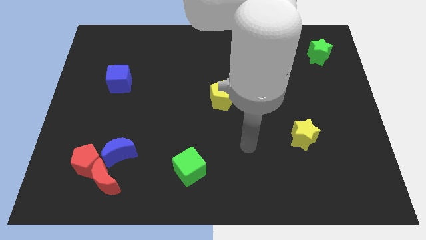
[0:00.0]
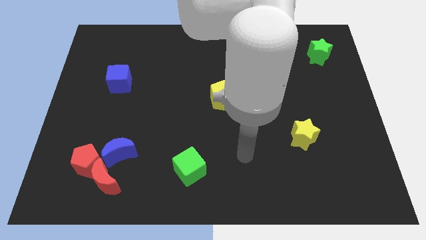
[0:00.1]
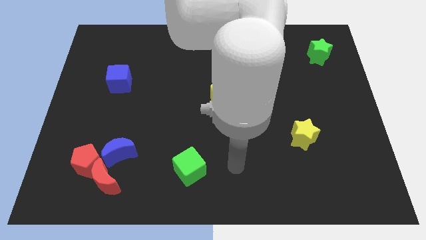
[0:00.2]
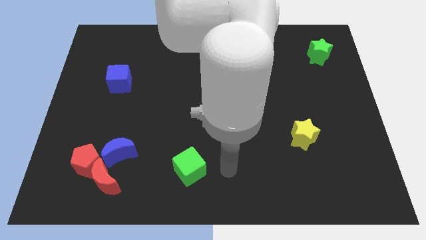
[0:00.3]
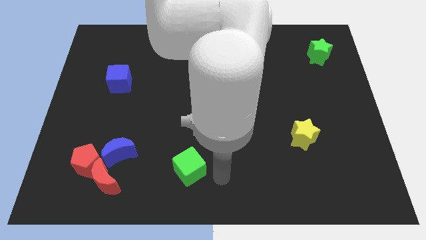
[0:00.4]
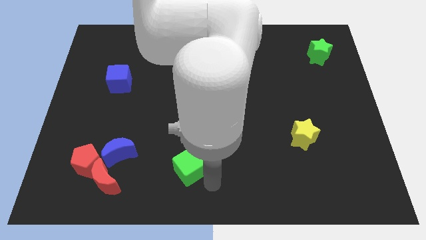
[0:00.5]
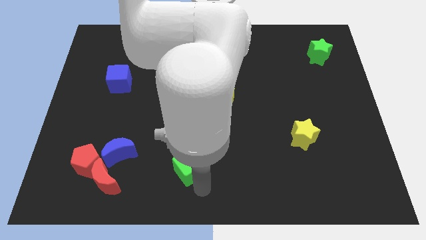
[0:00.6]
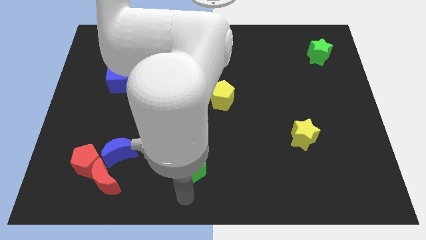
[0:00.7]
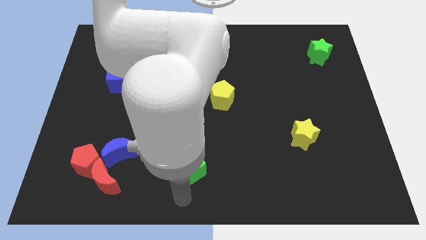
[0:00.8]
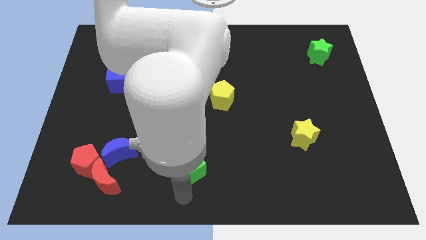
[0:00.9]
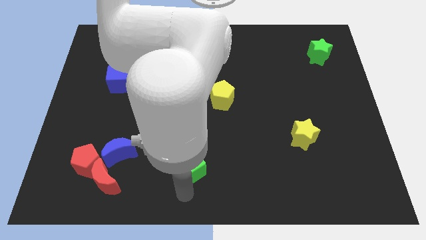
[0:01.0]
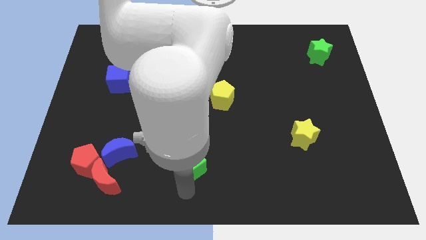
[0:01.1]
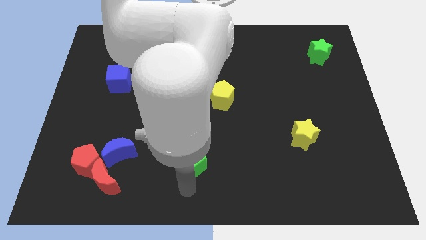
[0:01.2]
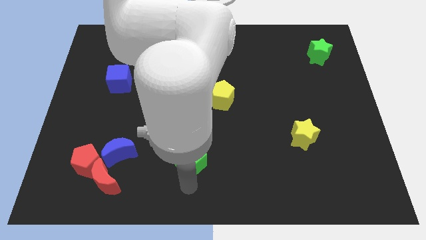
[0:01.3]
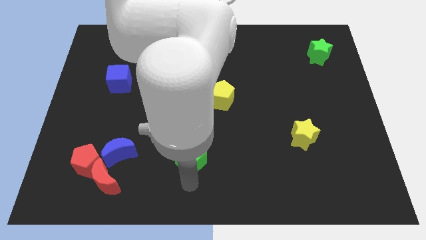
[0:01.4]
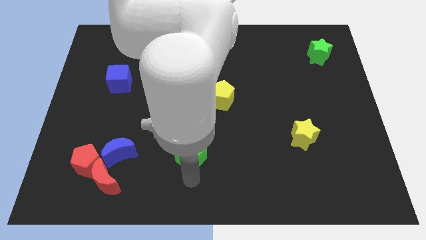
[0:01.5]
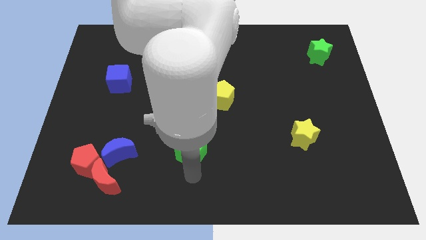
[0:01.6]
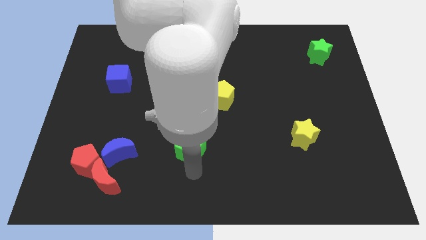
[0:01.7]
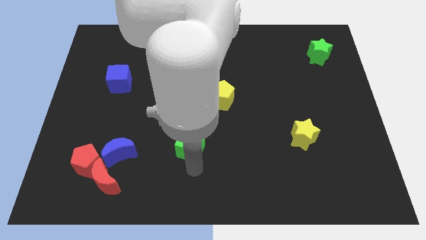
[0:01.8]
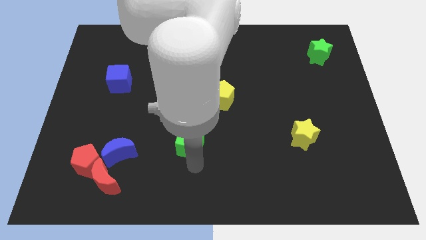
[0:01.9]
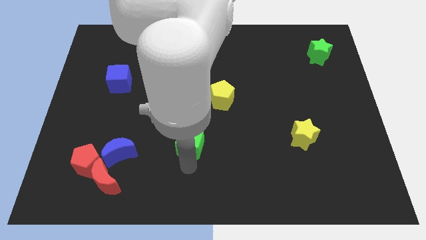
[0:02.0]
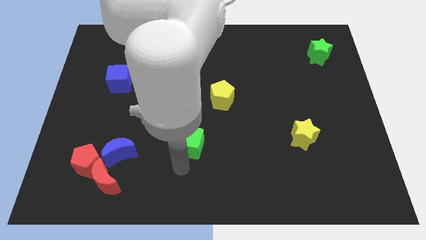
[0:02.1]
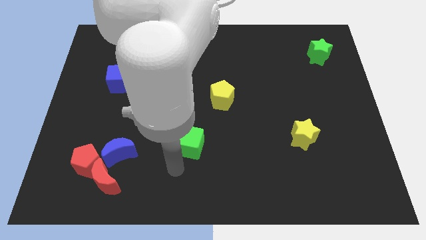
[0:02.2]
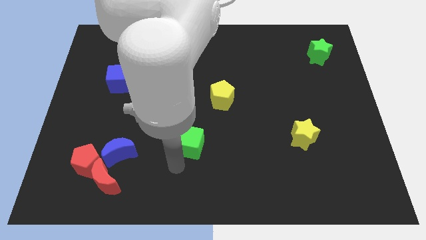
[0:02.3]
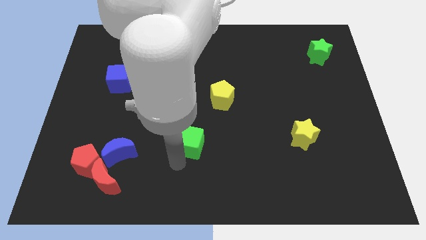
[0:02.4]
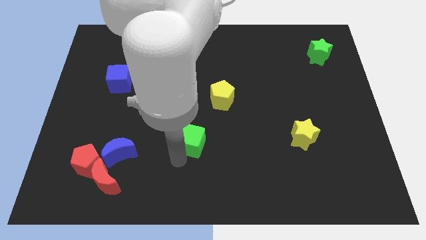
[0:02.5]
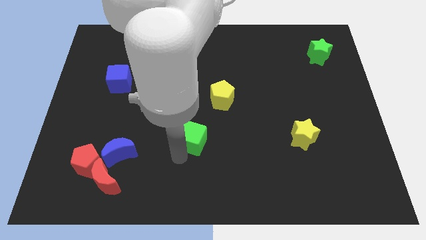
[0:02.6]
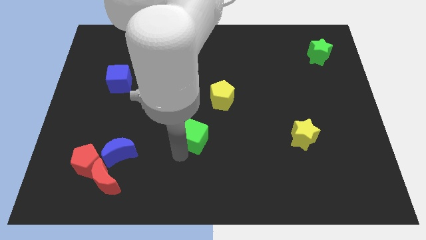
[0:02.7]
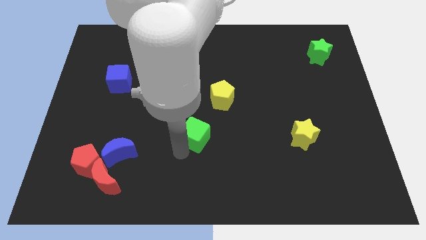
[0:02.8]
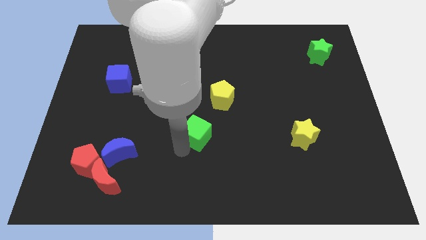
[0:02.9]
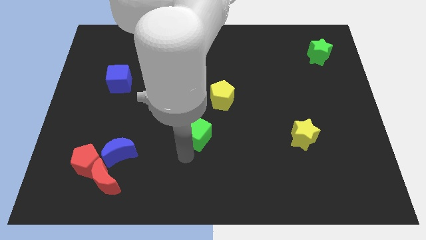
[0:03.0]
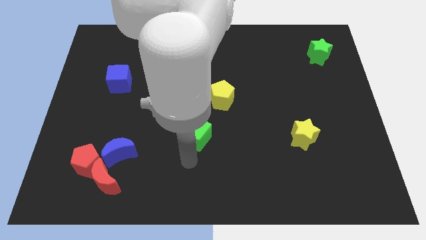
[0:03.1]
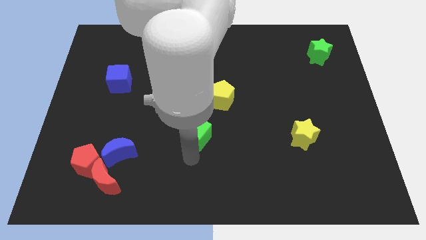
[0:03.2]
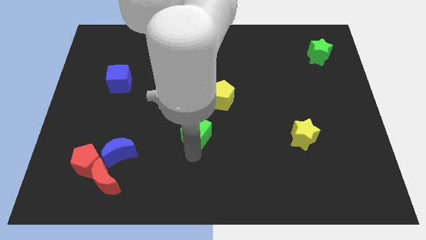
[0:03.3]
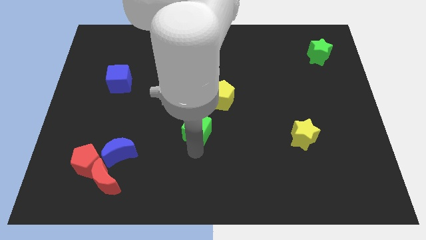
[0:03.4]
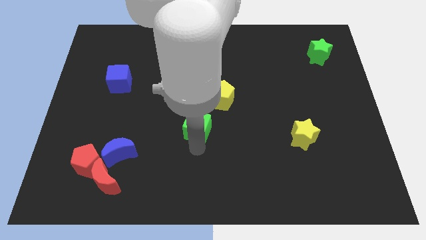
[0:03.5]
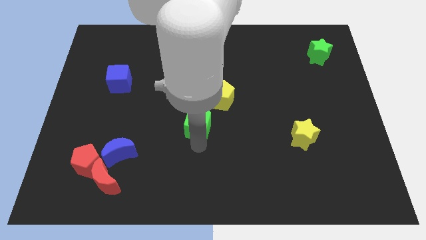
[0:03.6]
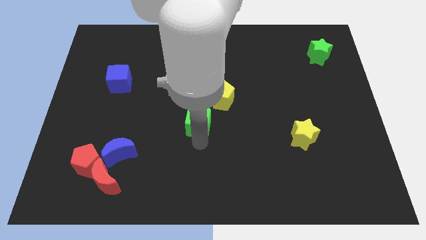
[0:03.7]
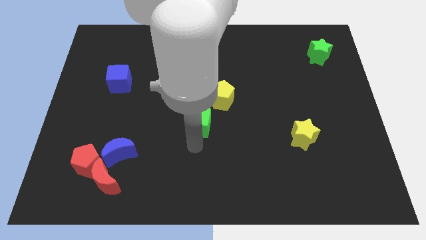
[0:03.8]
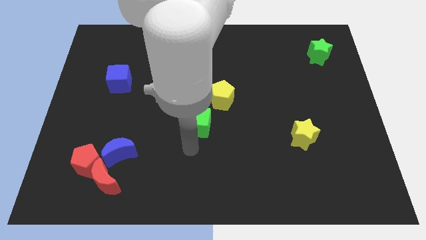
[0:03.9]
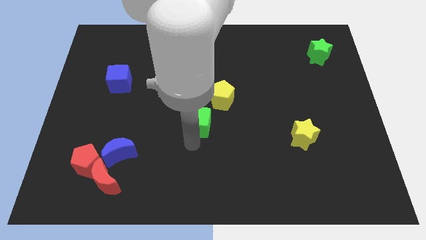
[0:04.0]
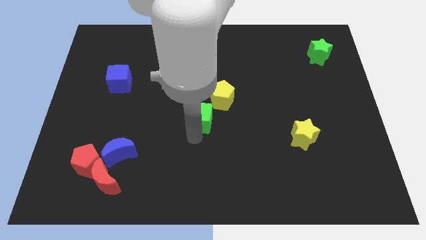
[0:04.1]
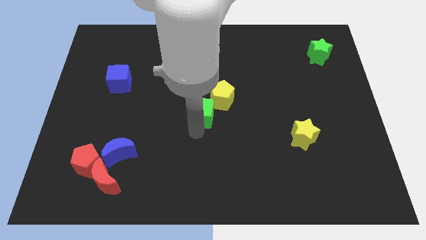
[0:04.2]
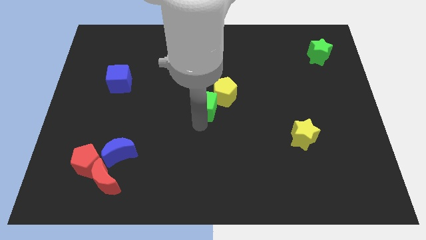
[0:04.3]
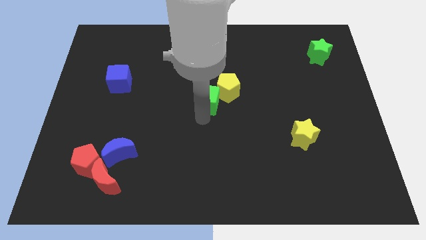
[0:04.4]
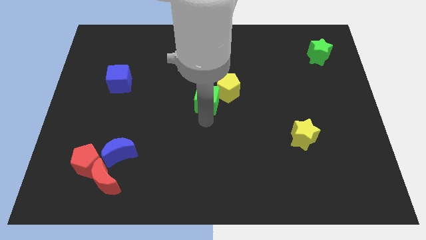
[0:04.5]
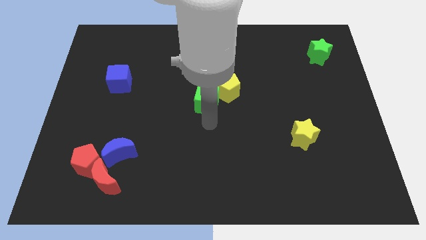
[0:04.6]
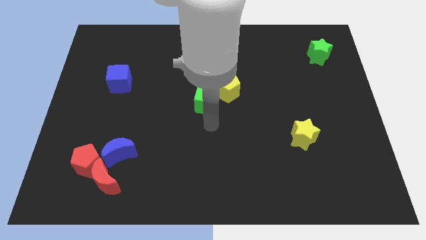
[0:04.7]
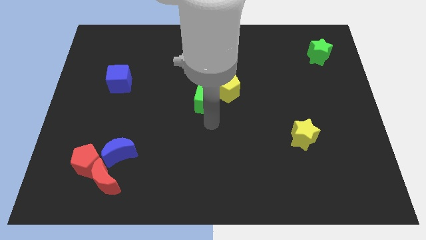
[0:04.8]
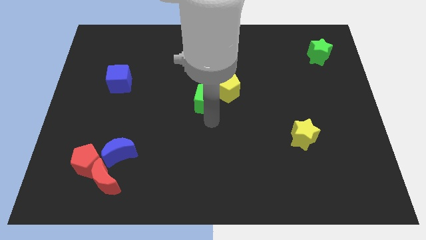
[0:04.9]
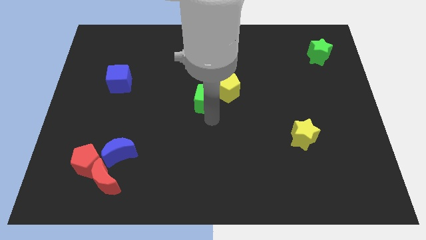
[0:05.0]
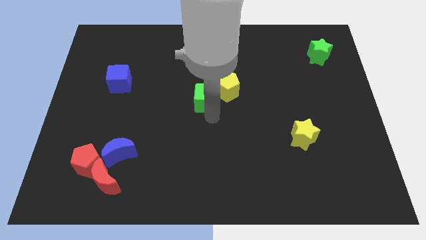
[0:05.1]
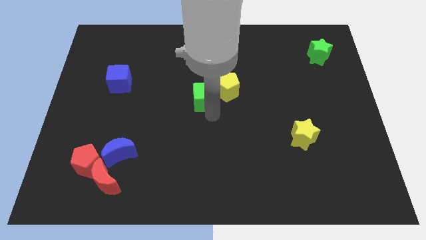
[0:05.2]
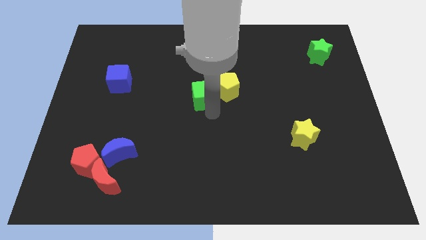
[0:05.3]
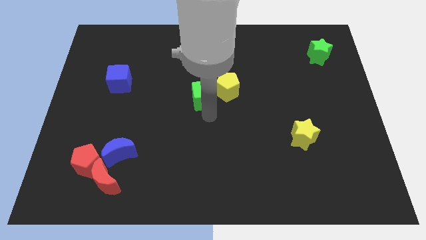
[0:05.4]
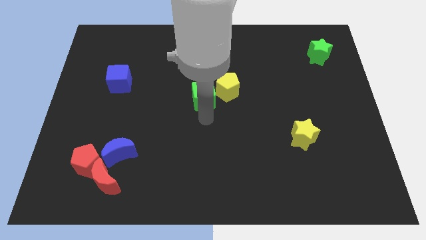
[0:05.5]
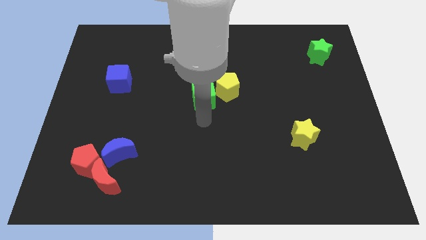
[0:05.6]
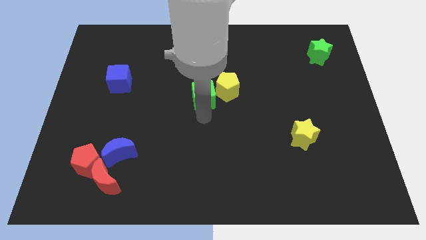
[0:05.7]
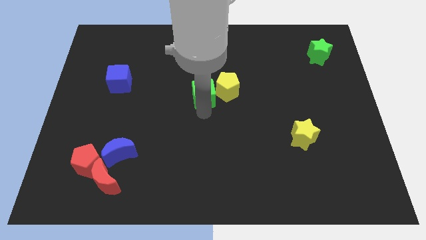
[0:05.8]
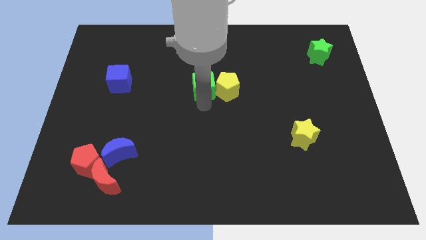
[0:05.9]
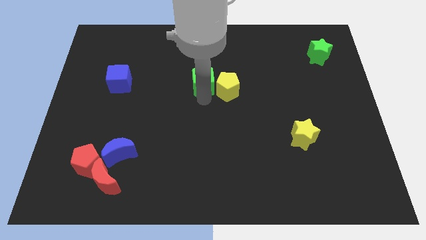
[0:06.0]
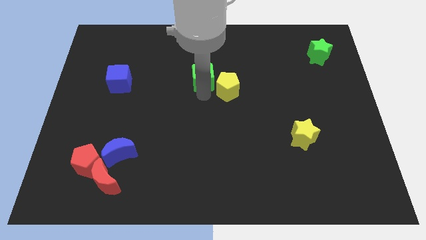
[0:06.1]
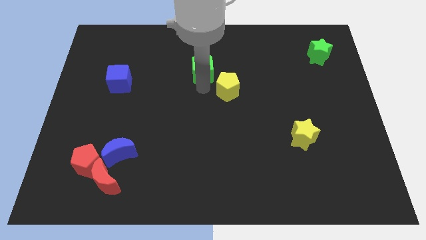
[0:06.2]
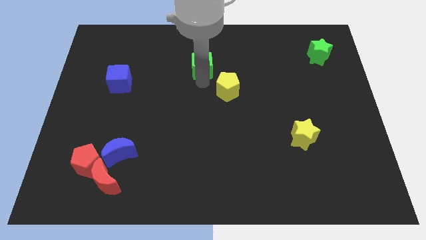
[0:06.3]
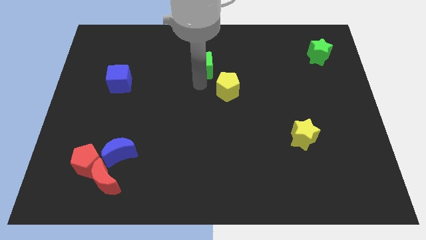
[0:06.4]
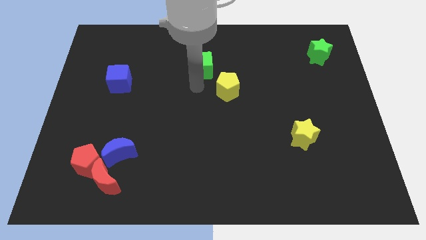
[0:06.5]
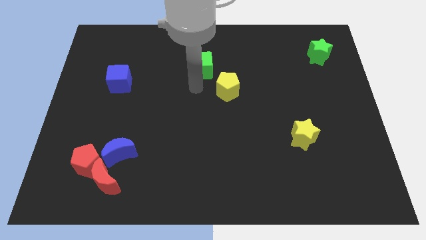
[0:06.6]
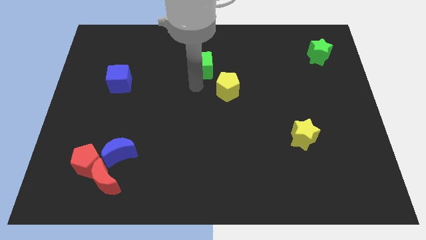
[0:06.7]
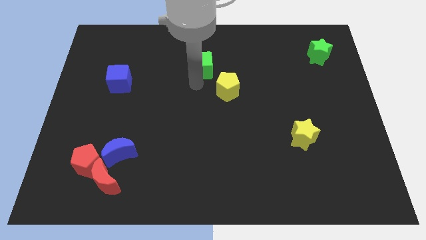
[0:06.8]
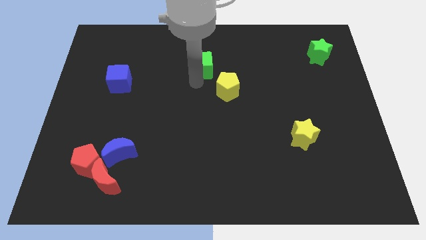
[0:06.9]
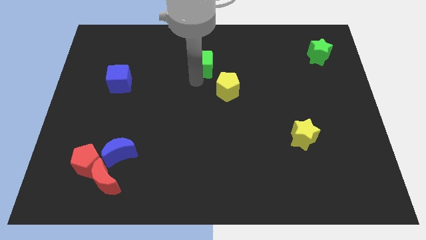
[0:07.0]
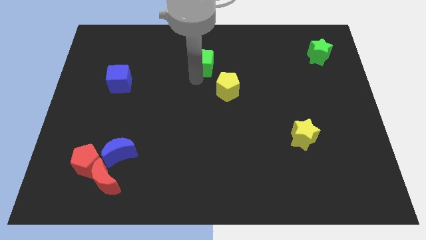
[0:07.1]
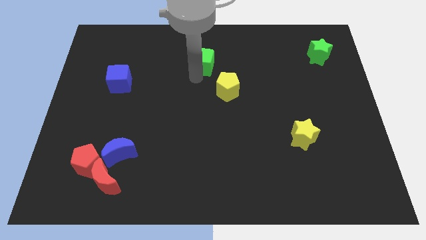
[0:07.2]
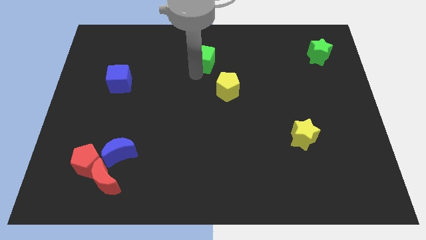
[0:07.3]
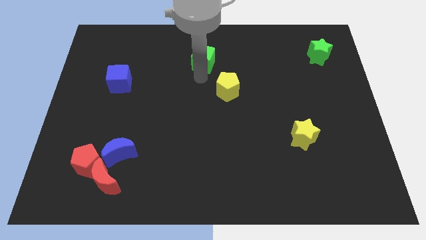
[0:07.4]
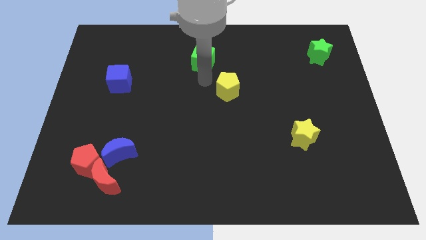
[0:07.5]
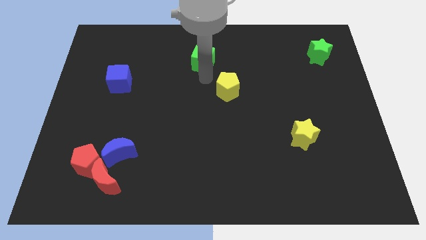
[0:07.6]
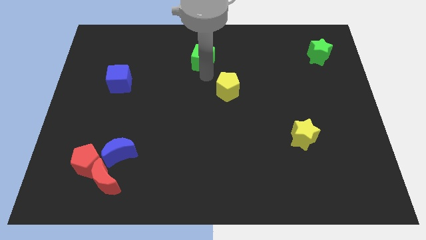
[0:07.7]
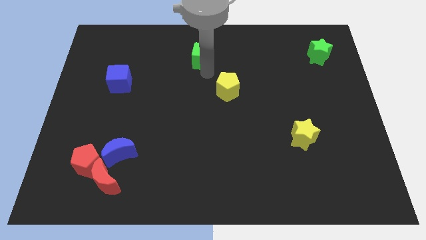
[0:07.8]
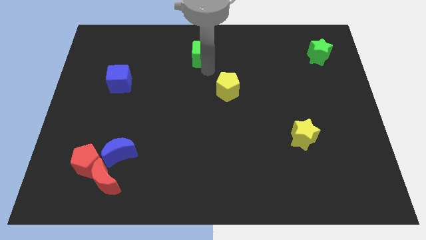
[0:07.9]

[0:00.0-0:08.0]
put the green cube to the top side
